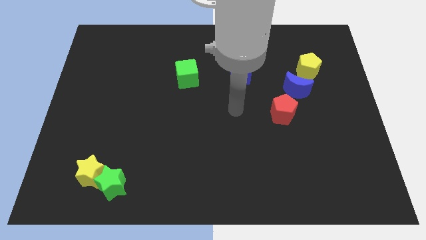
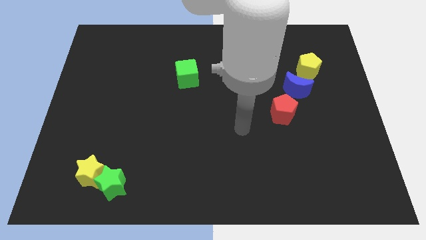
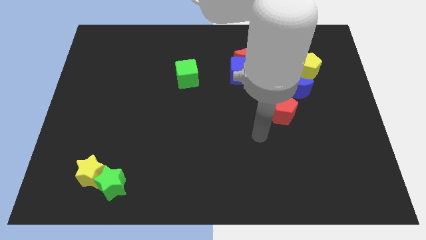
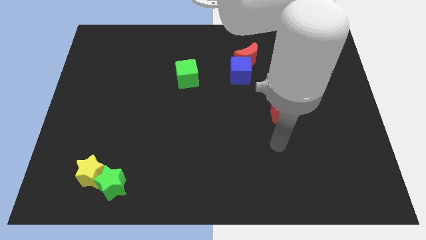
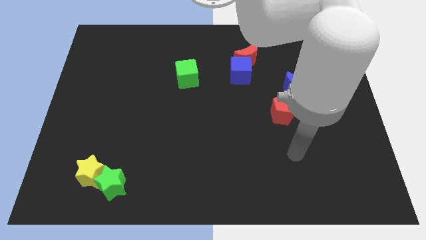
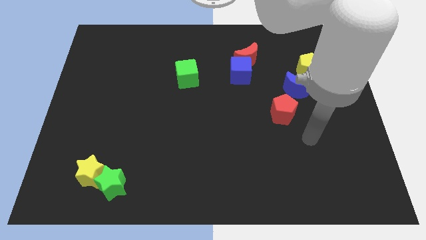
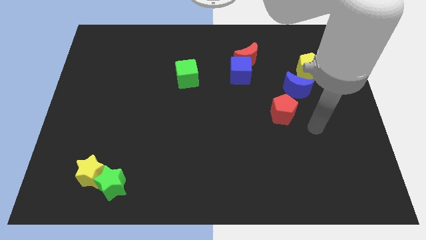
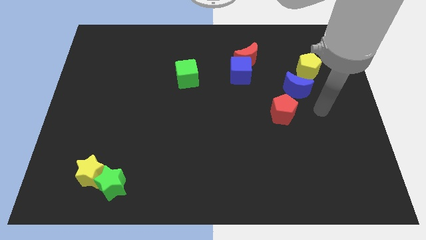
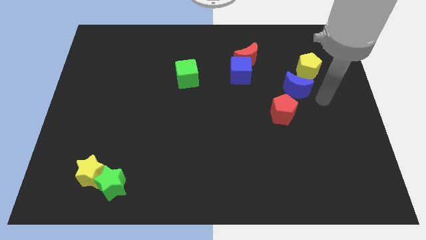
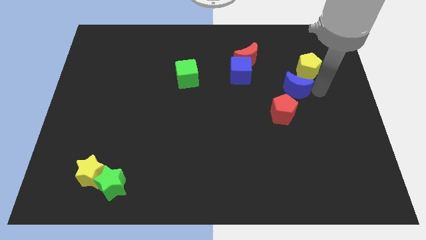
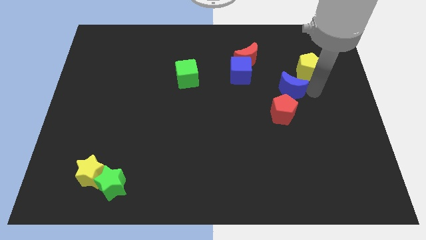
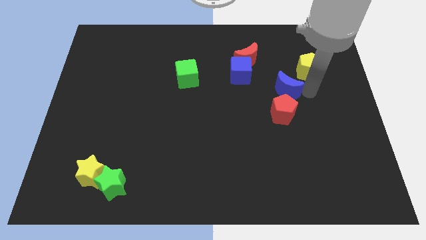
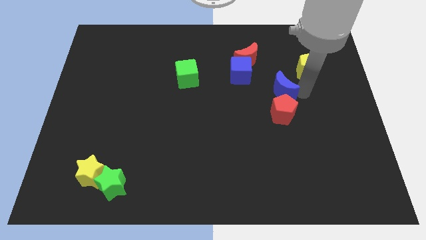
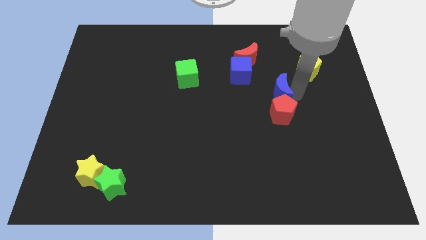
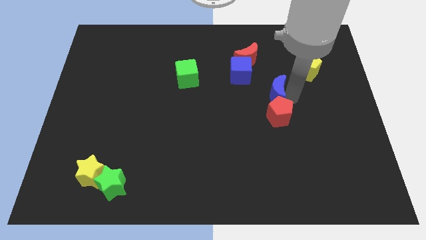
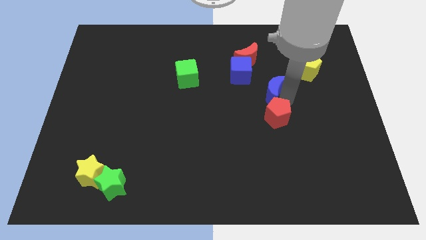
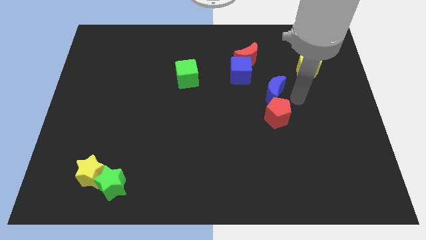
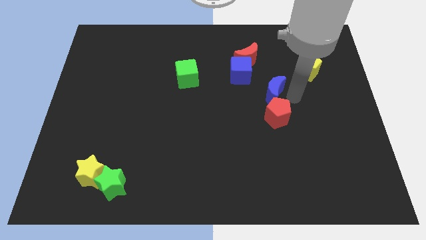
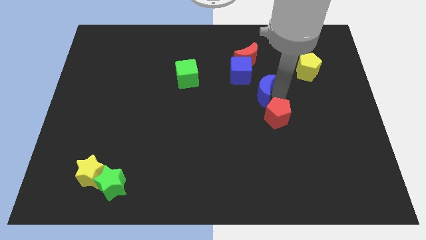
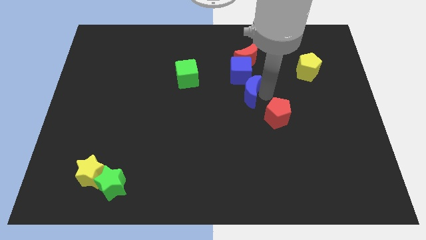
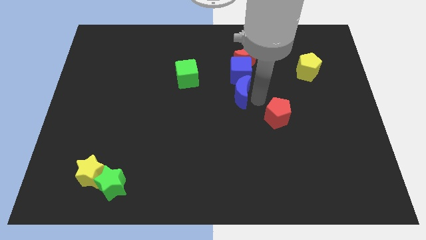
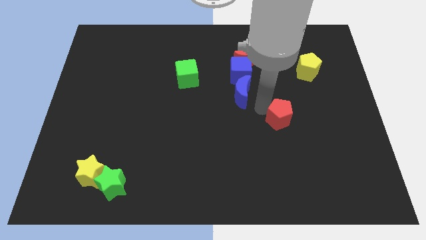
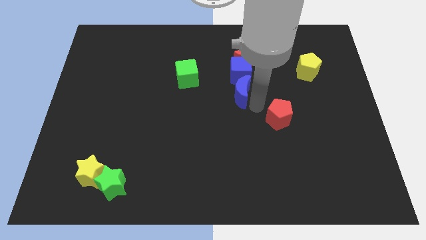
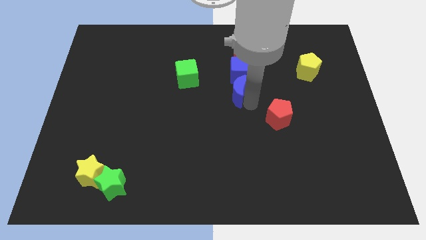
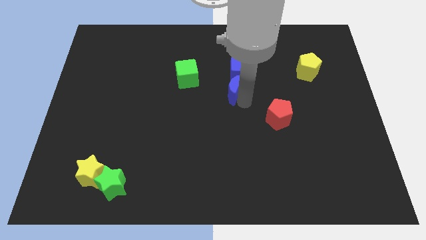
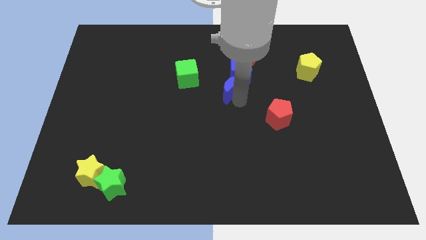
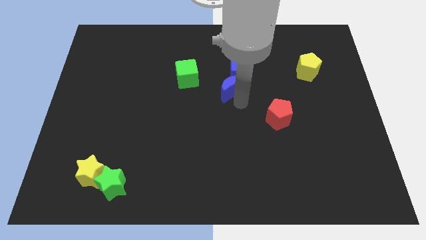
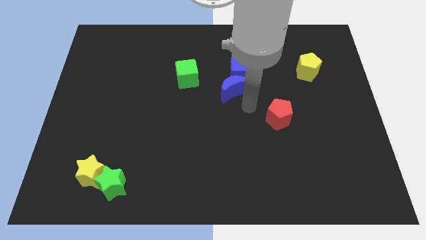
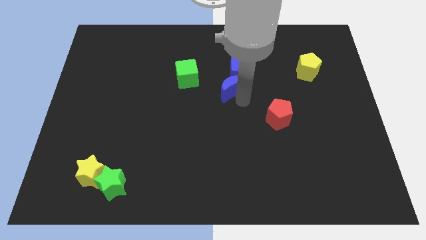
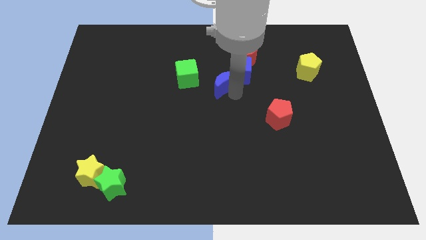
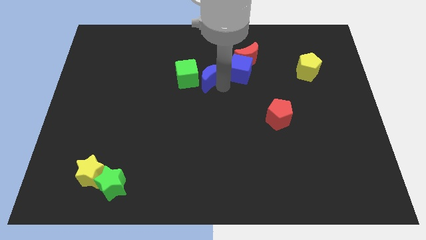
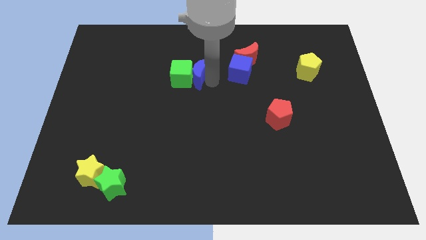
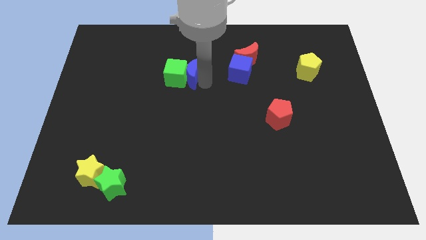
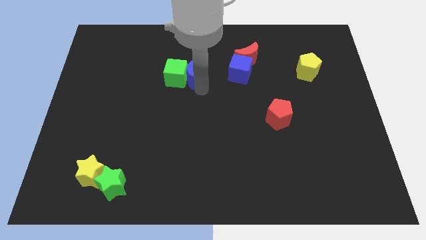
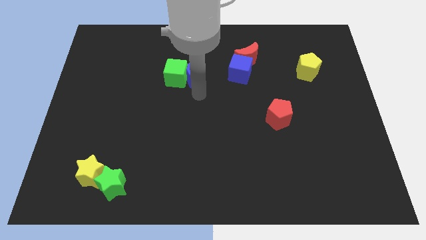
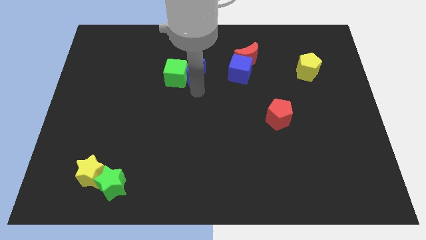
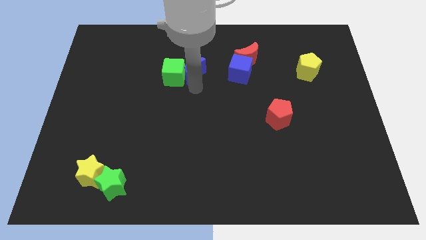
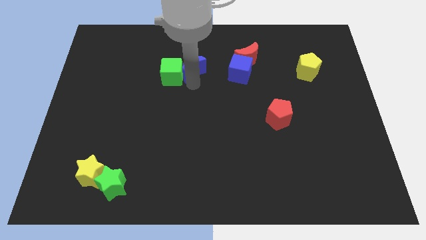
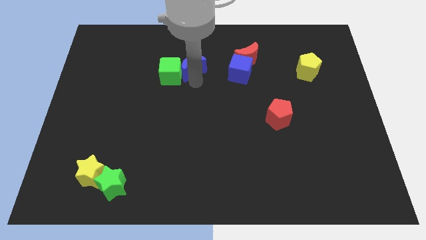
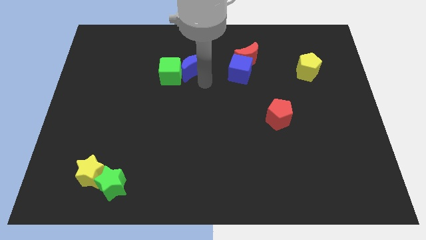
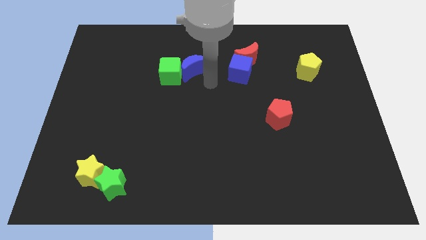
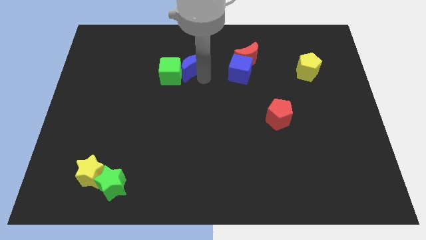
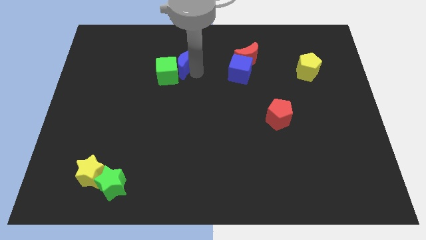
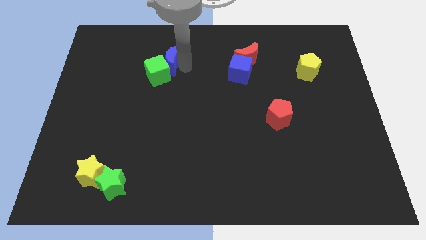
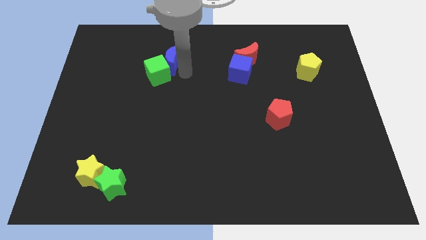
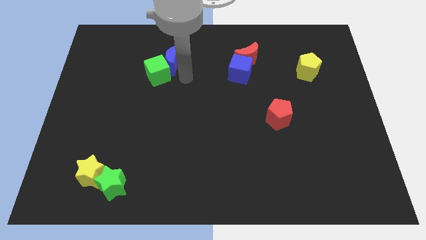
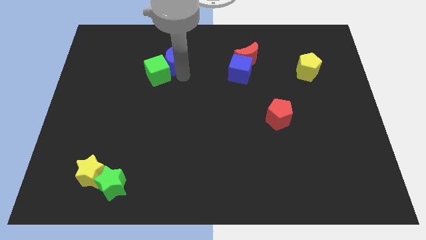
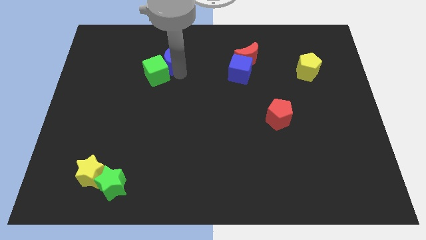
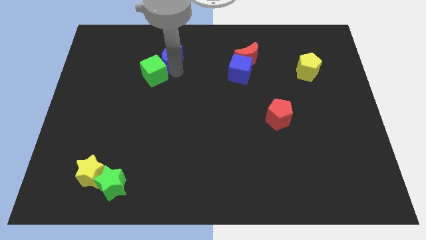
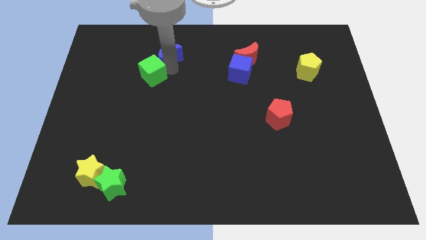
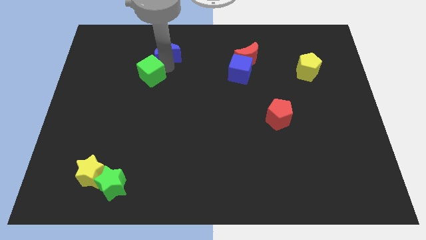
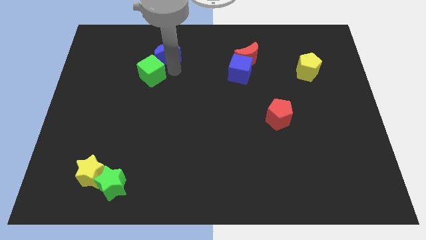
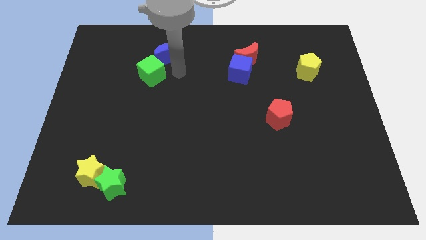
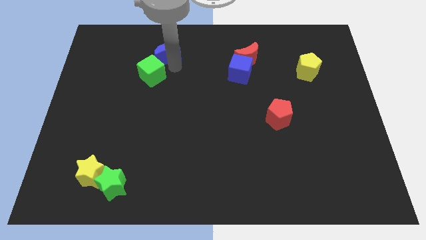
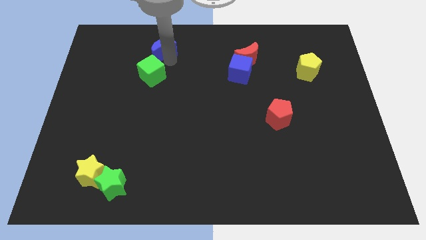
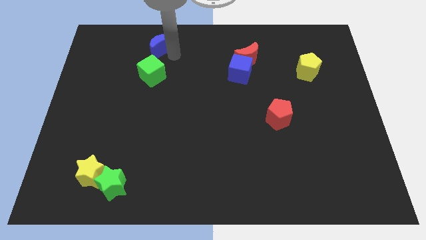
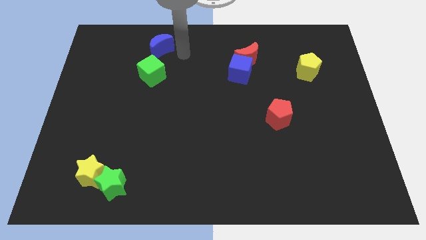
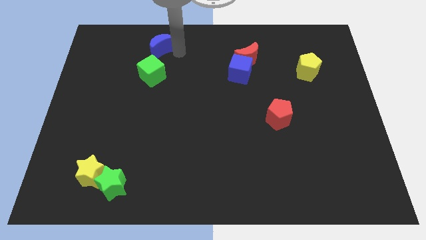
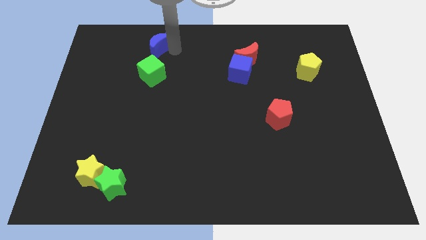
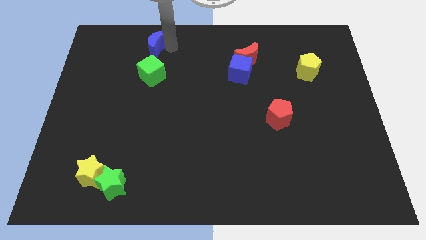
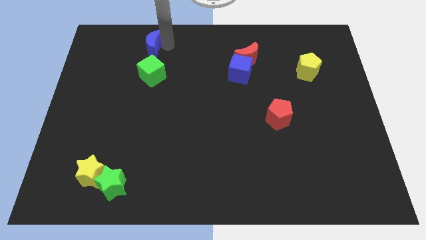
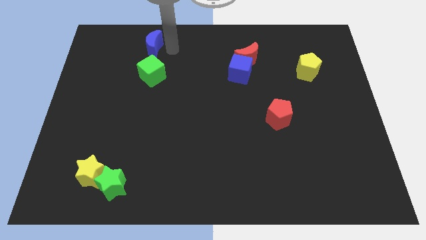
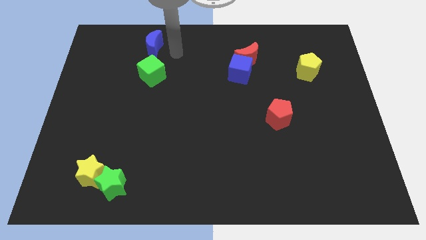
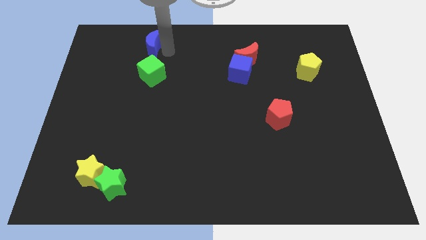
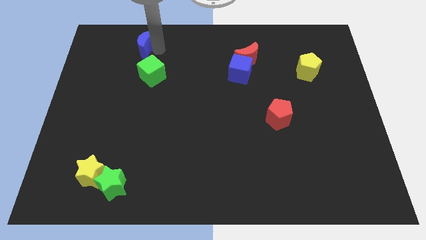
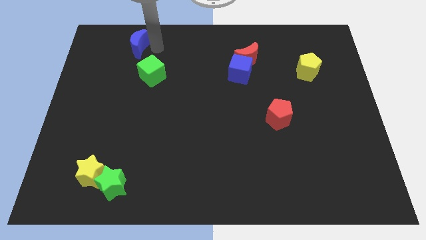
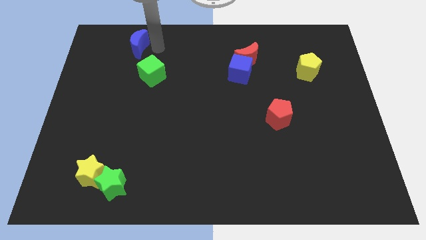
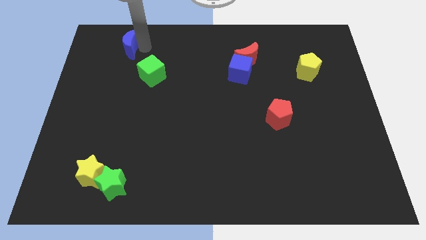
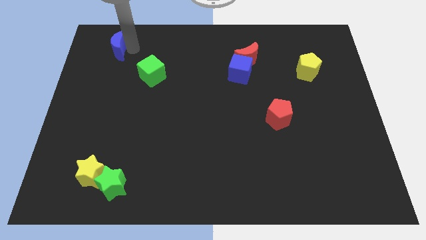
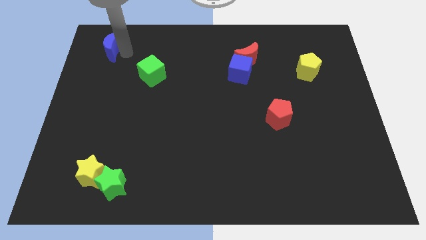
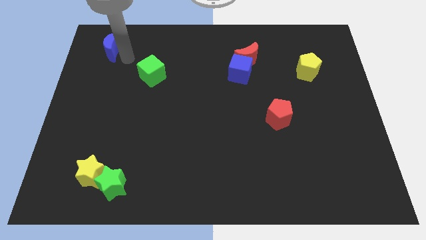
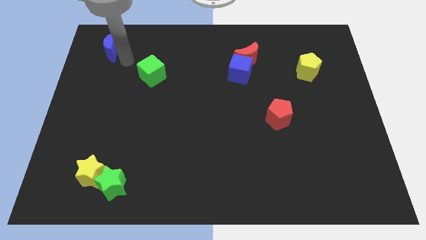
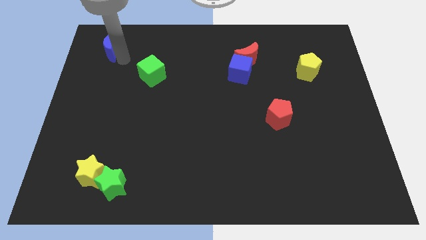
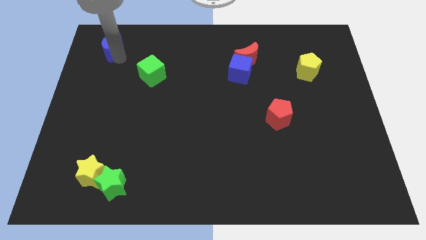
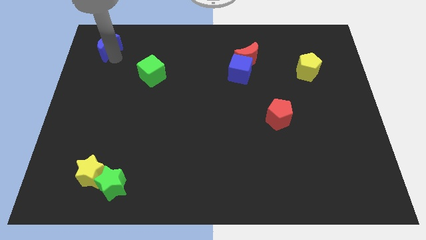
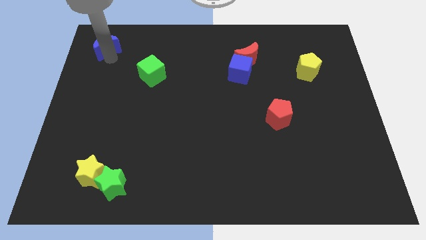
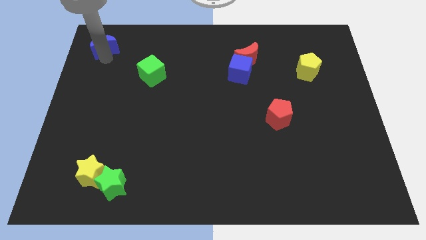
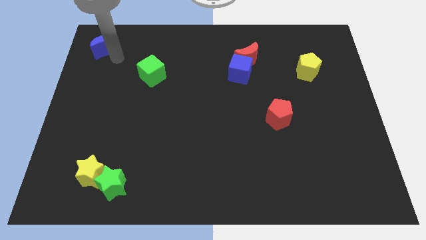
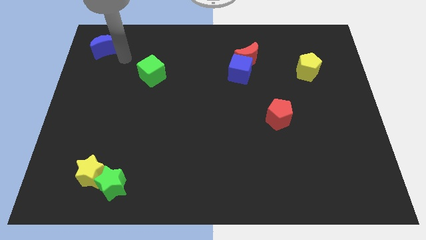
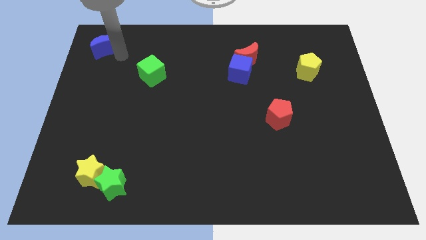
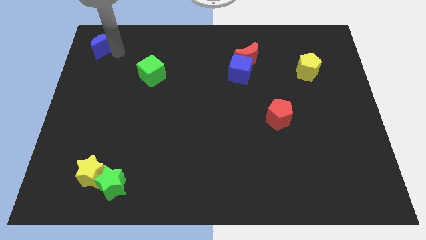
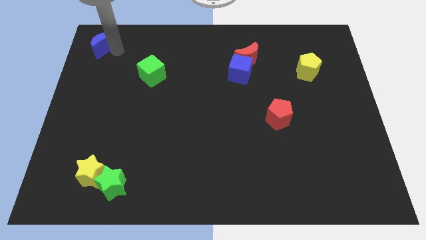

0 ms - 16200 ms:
put the blue moon to the upper left corner
